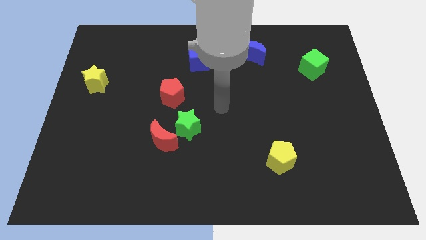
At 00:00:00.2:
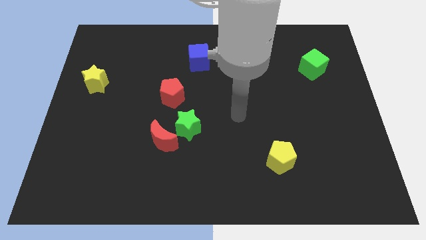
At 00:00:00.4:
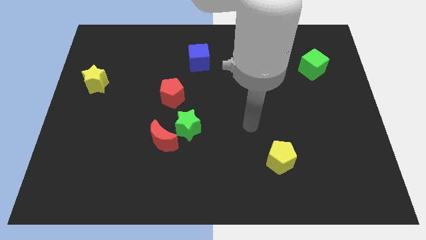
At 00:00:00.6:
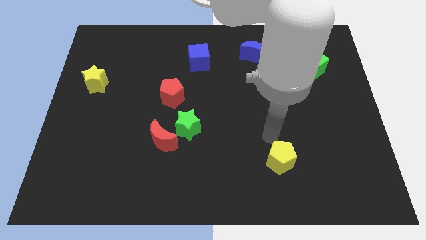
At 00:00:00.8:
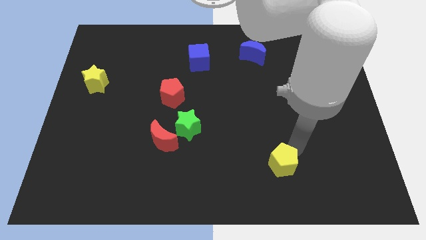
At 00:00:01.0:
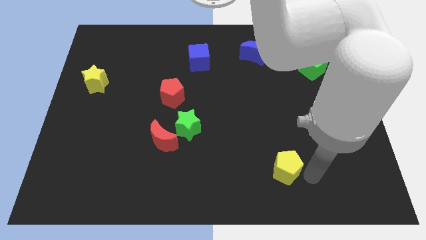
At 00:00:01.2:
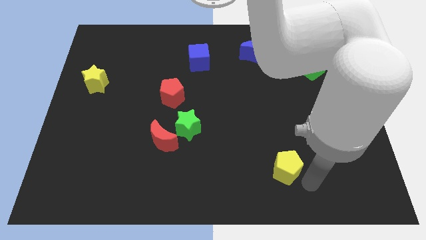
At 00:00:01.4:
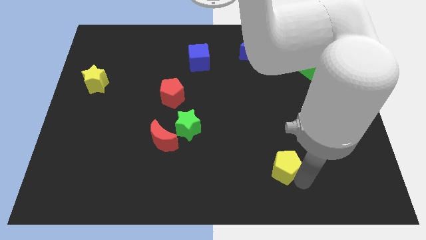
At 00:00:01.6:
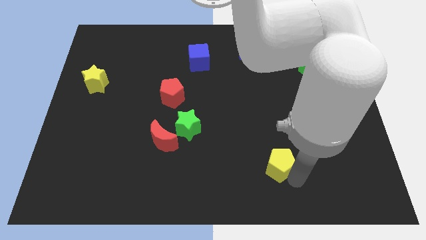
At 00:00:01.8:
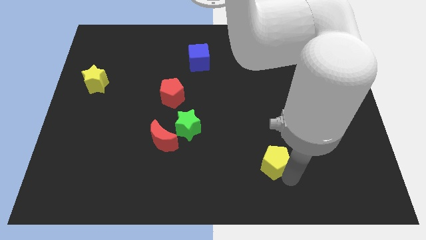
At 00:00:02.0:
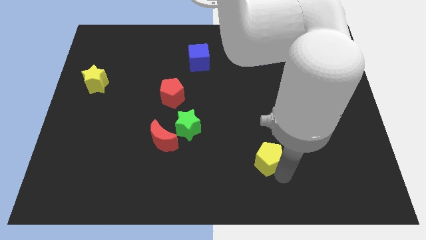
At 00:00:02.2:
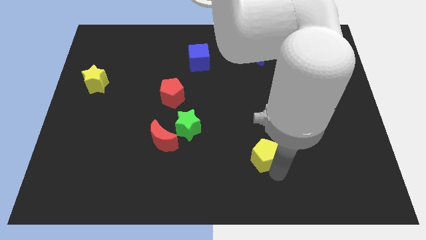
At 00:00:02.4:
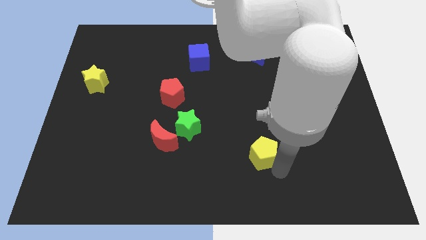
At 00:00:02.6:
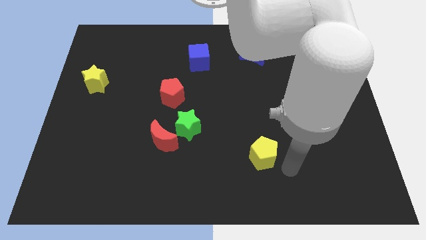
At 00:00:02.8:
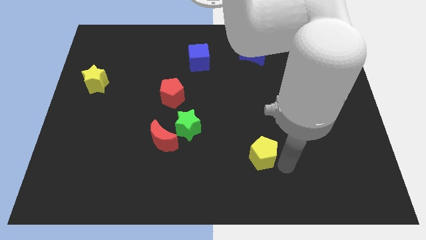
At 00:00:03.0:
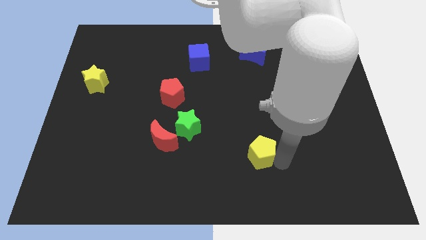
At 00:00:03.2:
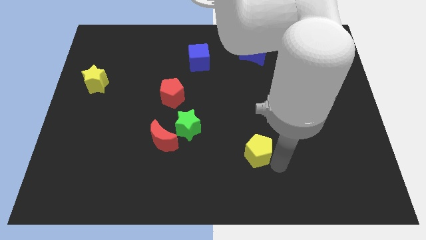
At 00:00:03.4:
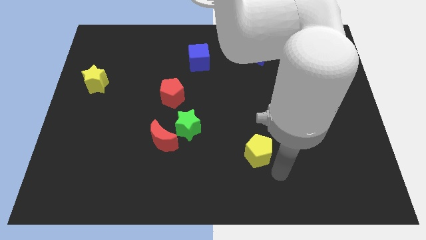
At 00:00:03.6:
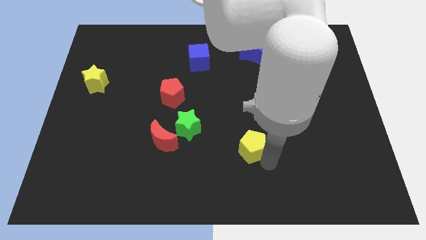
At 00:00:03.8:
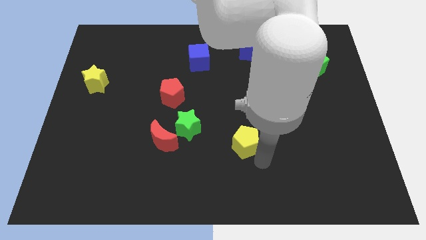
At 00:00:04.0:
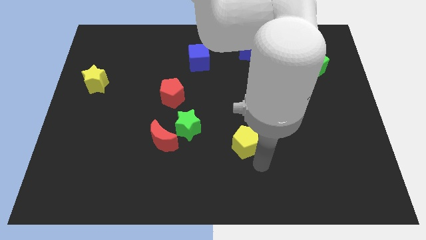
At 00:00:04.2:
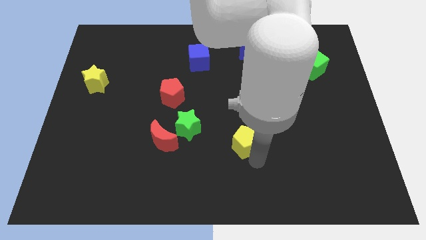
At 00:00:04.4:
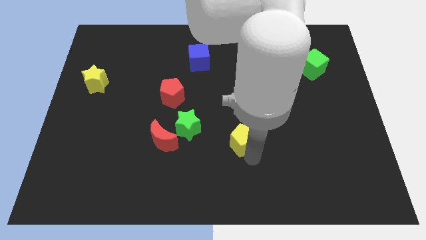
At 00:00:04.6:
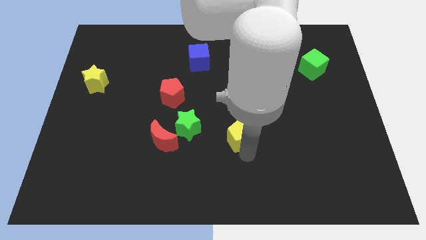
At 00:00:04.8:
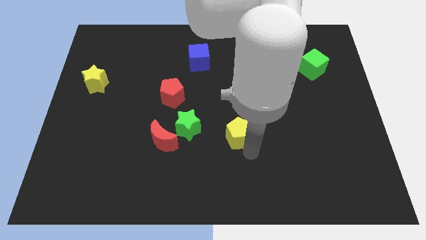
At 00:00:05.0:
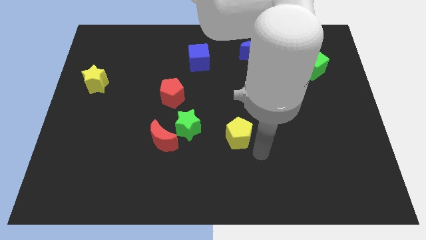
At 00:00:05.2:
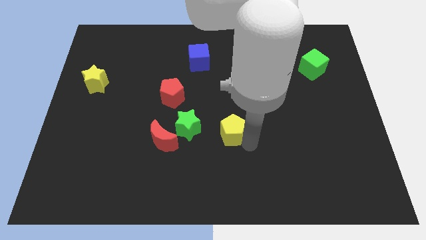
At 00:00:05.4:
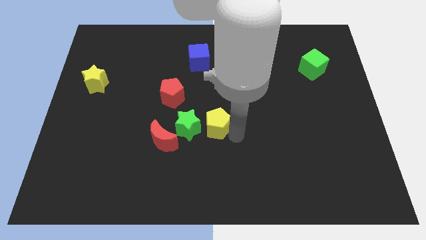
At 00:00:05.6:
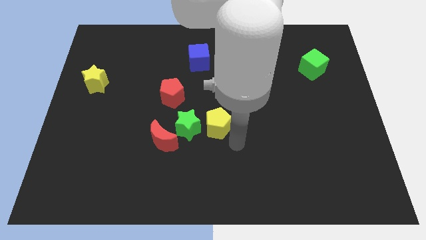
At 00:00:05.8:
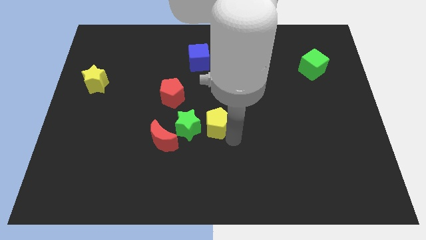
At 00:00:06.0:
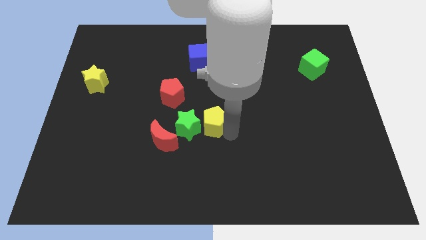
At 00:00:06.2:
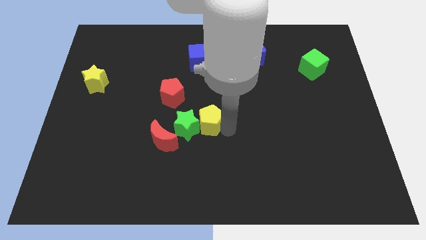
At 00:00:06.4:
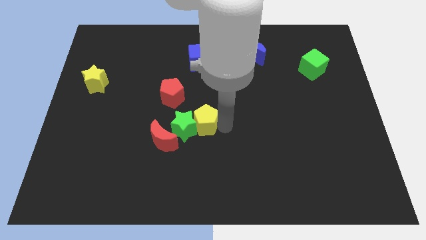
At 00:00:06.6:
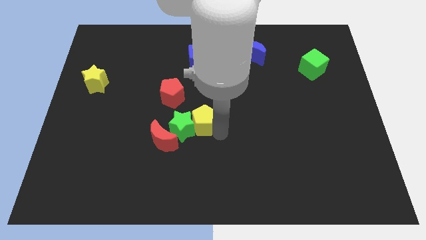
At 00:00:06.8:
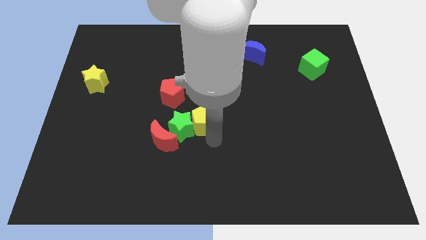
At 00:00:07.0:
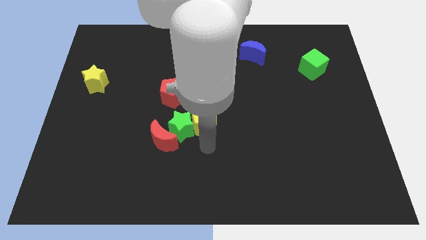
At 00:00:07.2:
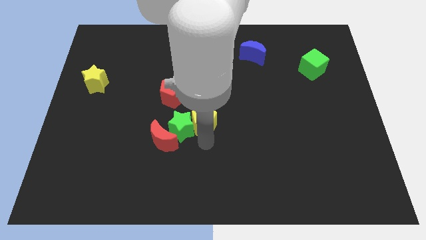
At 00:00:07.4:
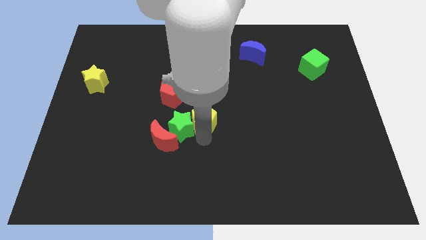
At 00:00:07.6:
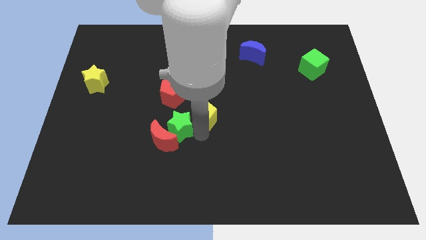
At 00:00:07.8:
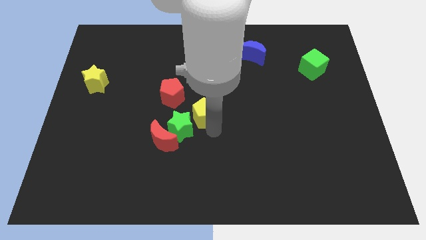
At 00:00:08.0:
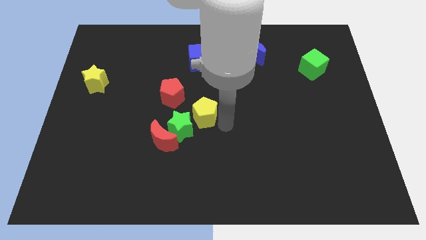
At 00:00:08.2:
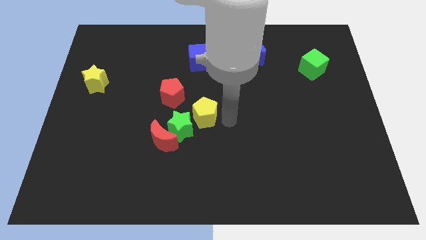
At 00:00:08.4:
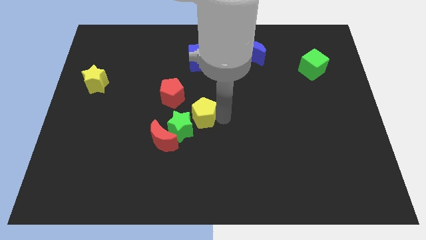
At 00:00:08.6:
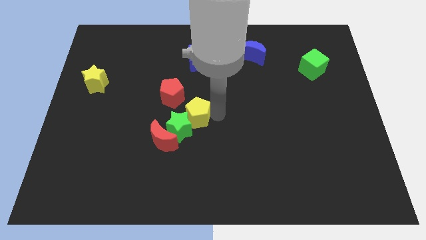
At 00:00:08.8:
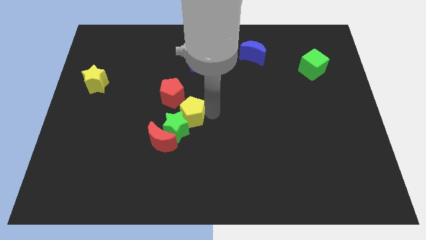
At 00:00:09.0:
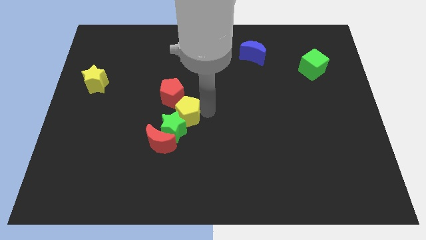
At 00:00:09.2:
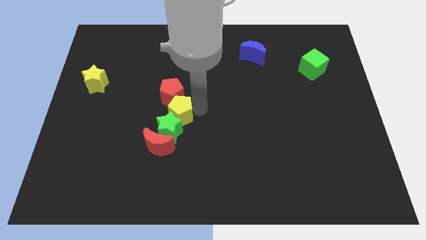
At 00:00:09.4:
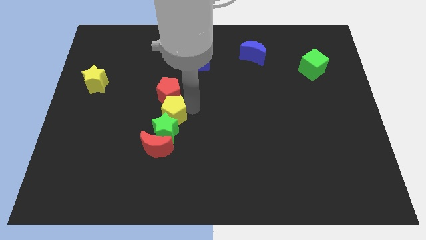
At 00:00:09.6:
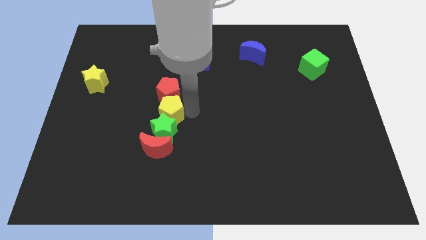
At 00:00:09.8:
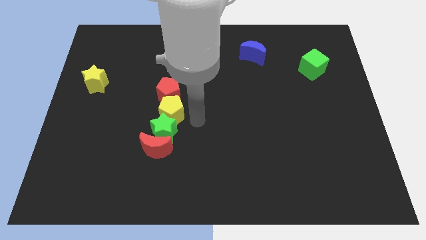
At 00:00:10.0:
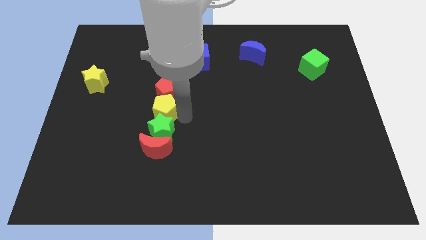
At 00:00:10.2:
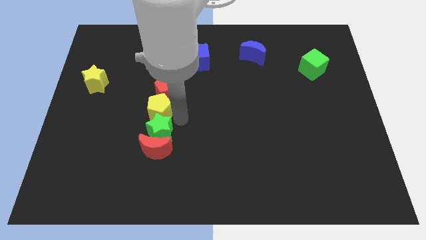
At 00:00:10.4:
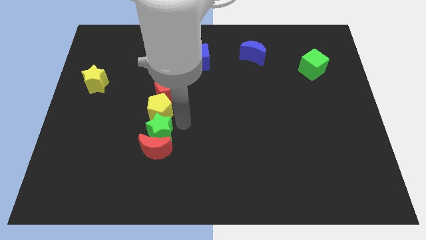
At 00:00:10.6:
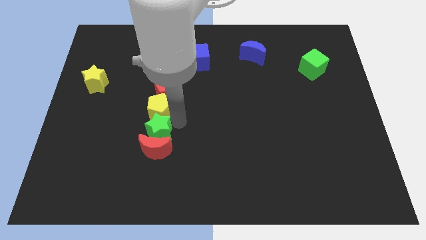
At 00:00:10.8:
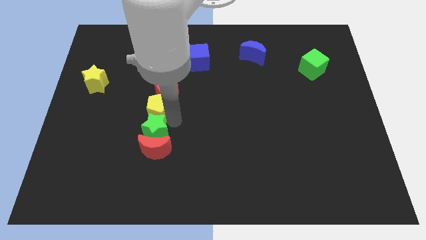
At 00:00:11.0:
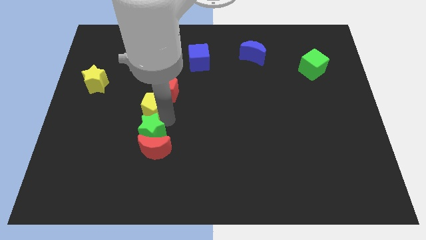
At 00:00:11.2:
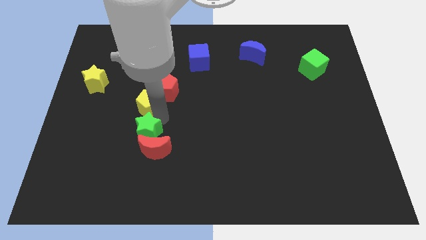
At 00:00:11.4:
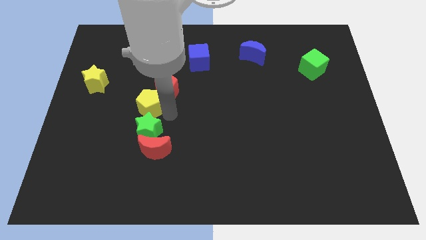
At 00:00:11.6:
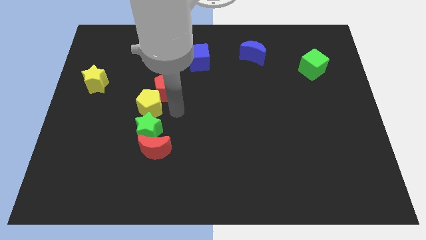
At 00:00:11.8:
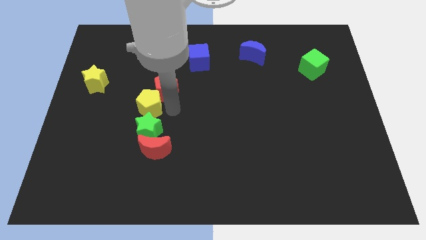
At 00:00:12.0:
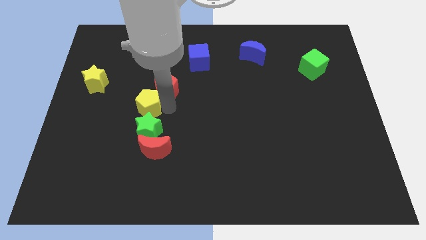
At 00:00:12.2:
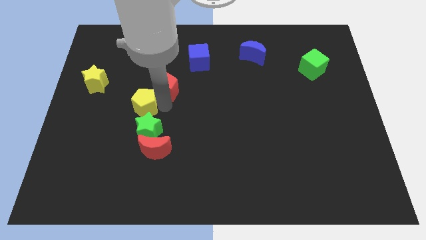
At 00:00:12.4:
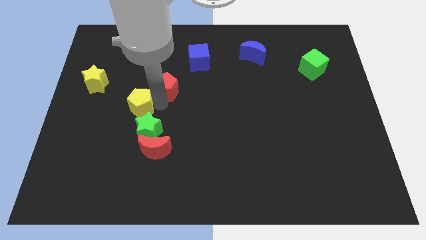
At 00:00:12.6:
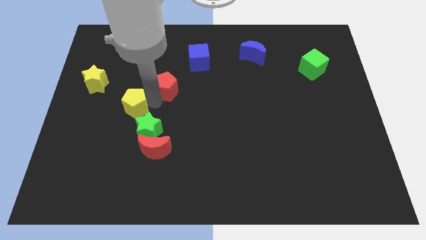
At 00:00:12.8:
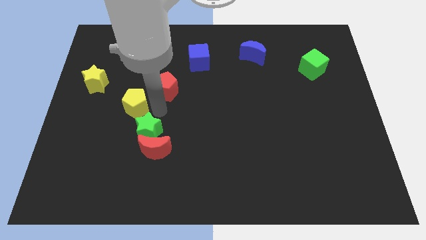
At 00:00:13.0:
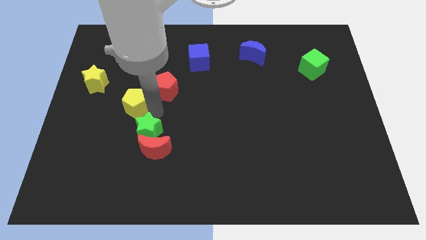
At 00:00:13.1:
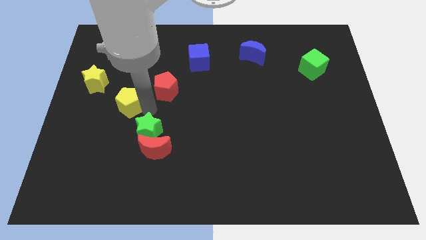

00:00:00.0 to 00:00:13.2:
put the yellow pentagon diagonally down and to the right of the yellow star
